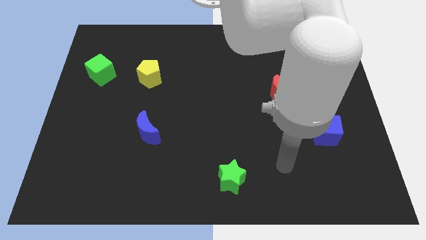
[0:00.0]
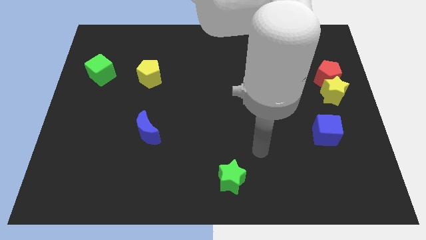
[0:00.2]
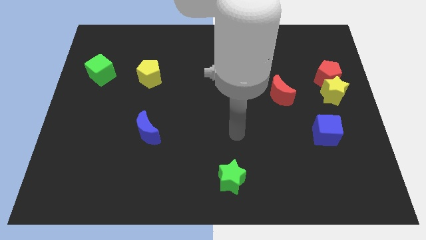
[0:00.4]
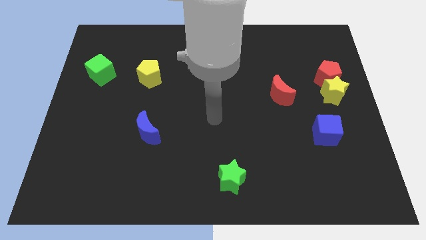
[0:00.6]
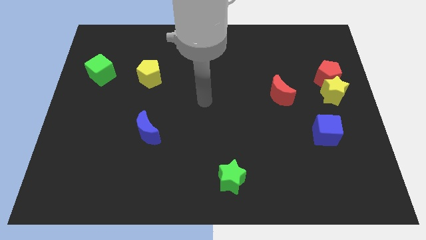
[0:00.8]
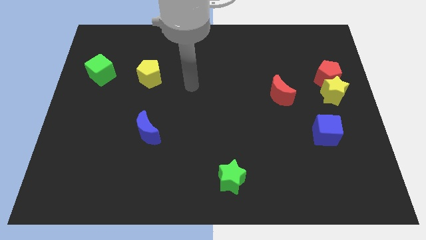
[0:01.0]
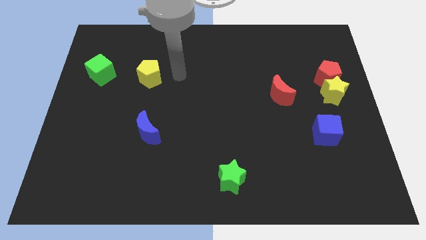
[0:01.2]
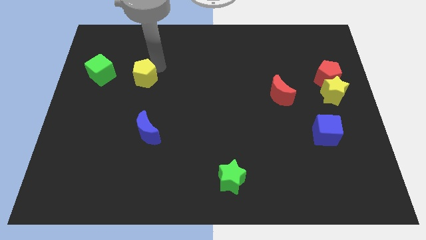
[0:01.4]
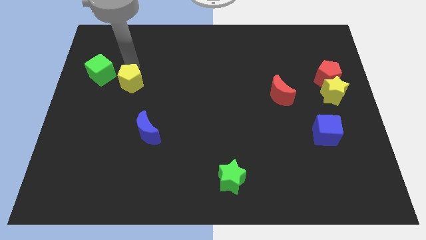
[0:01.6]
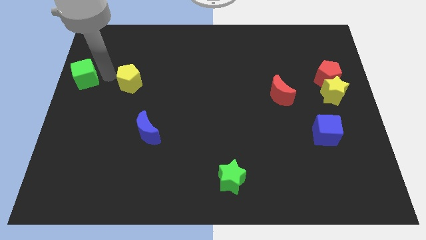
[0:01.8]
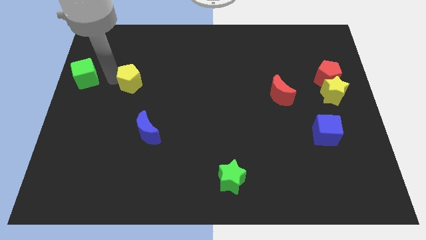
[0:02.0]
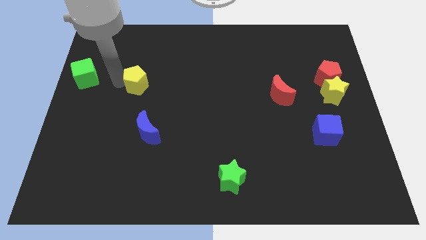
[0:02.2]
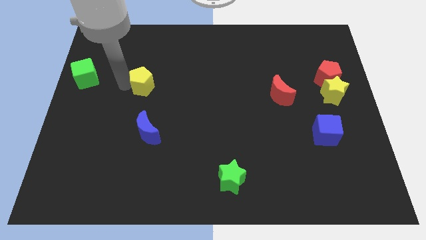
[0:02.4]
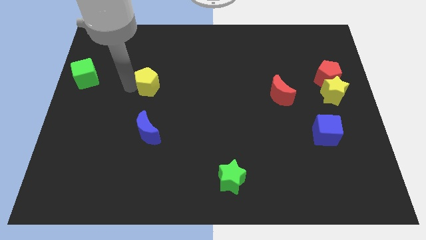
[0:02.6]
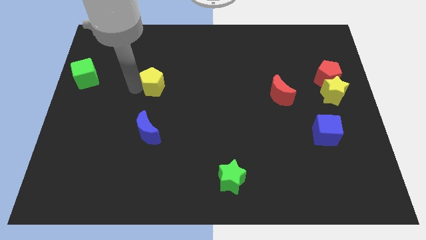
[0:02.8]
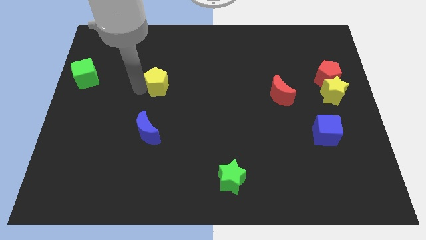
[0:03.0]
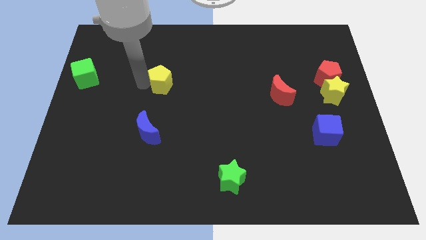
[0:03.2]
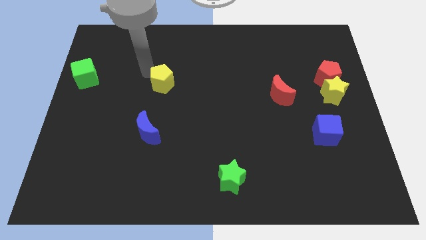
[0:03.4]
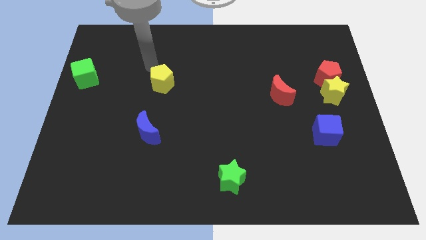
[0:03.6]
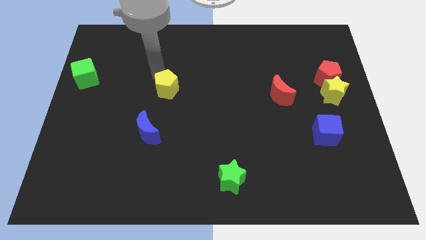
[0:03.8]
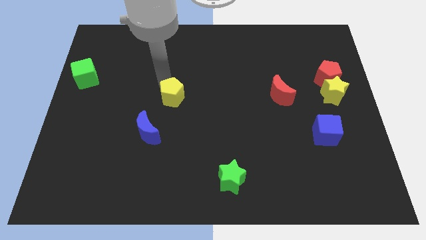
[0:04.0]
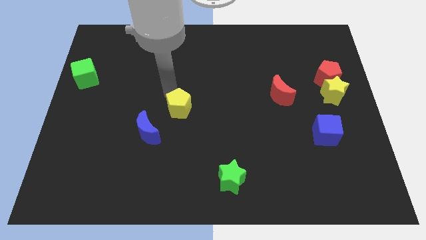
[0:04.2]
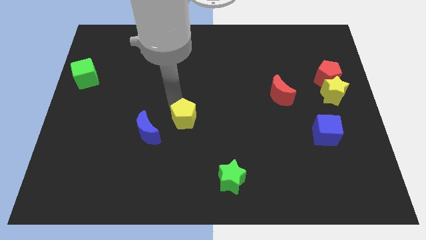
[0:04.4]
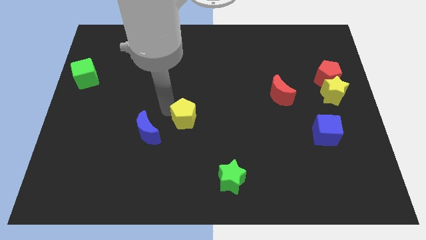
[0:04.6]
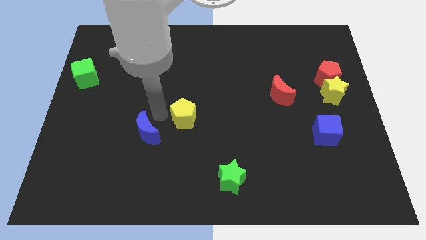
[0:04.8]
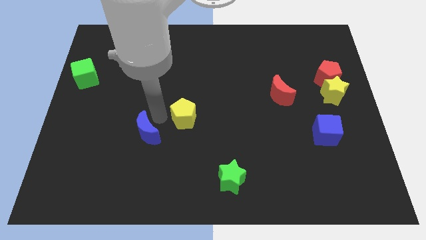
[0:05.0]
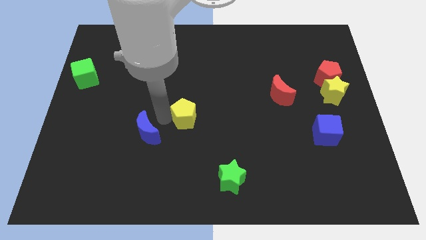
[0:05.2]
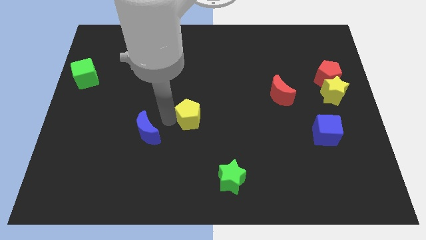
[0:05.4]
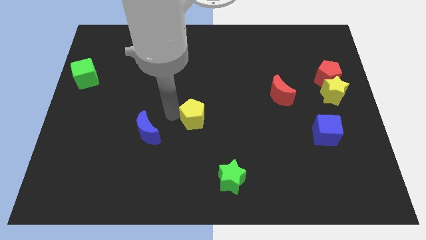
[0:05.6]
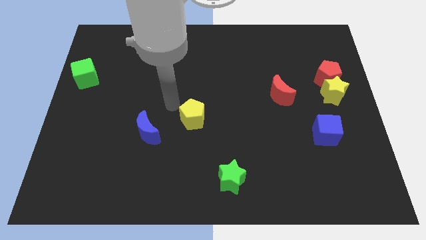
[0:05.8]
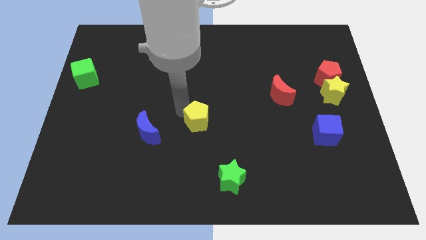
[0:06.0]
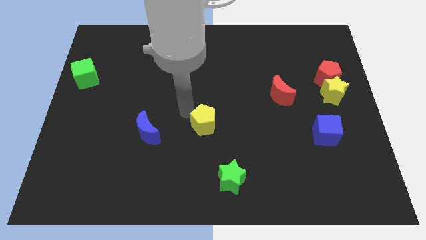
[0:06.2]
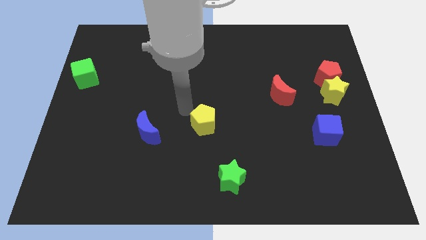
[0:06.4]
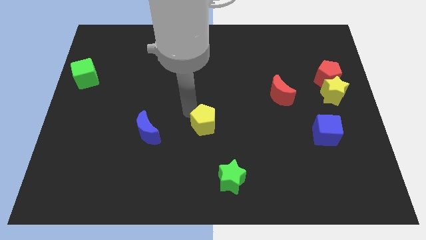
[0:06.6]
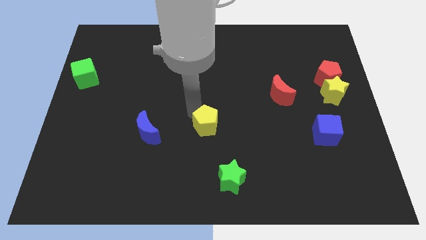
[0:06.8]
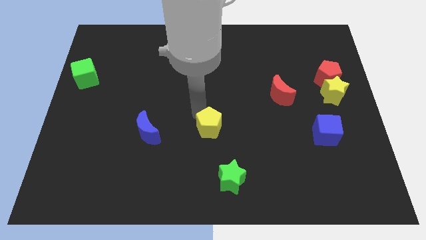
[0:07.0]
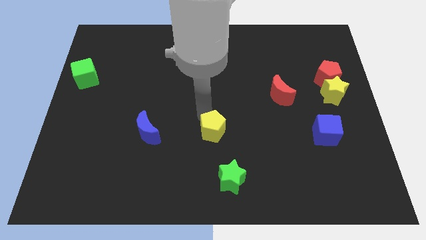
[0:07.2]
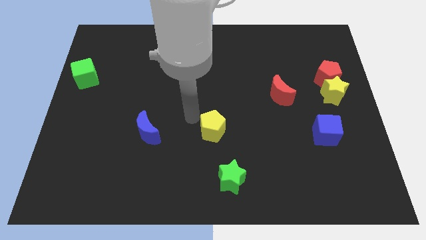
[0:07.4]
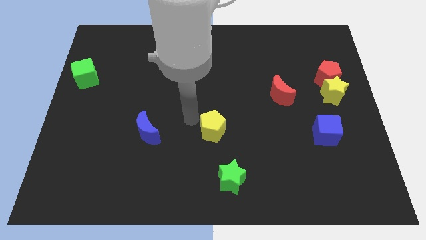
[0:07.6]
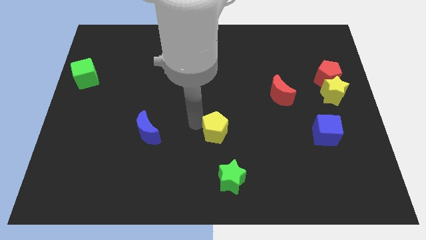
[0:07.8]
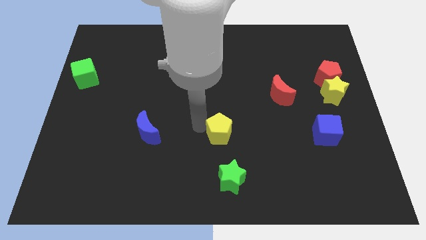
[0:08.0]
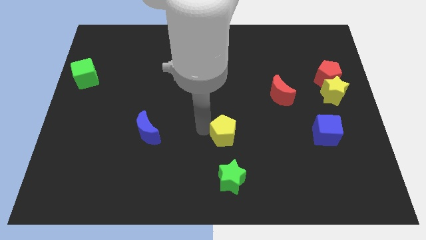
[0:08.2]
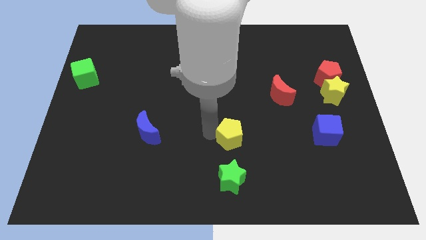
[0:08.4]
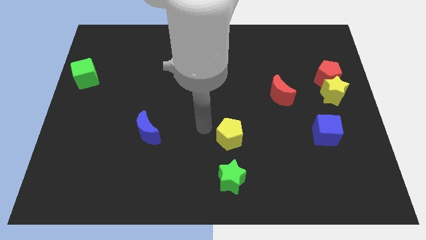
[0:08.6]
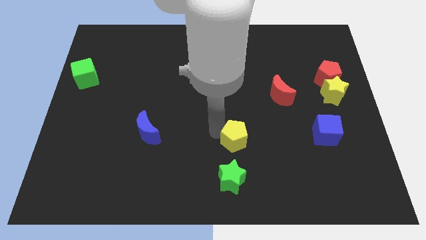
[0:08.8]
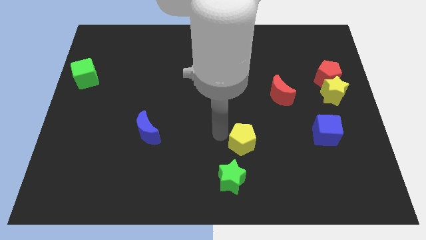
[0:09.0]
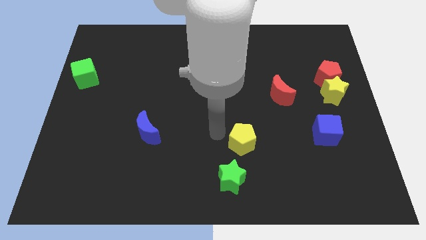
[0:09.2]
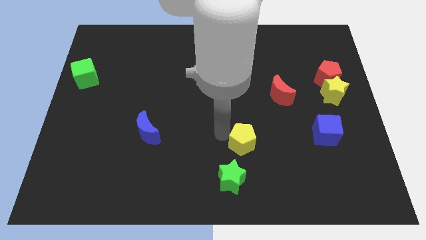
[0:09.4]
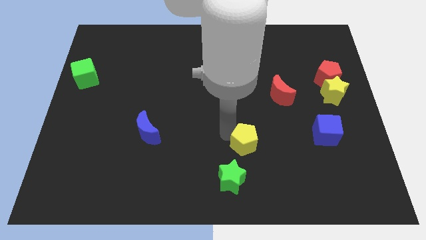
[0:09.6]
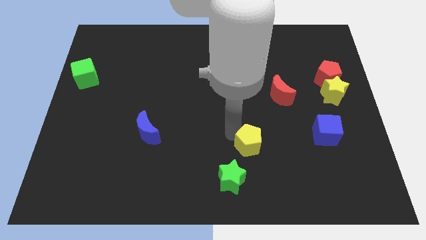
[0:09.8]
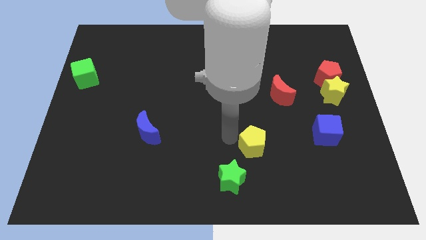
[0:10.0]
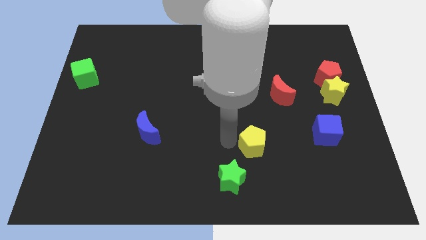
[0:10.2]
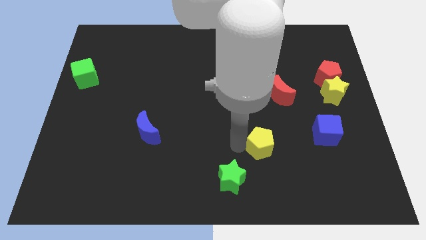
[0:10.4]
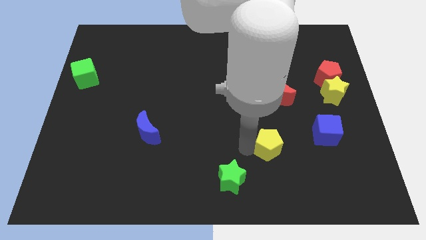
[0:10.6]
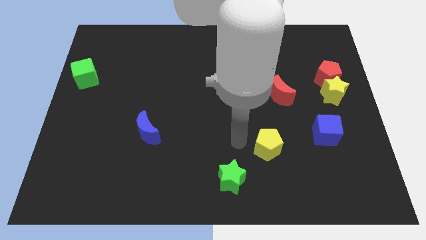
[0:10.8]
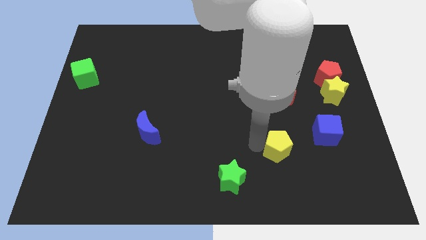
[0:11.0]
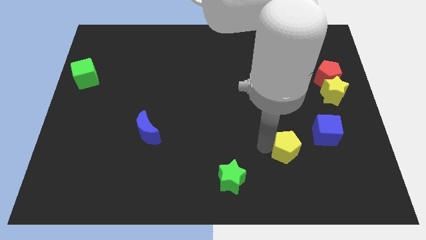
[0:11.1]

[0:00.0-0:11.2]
slide the yellow pentagon to the bottom left of the blue cube

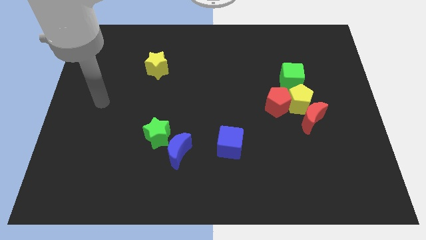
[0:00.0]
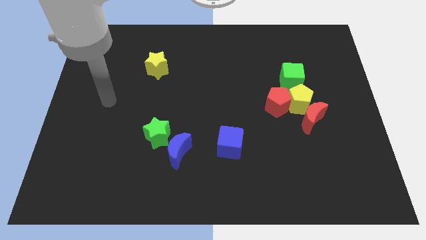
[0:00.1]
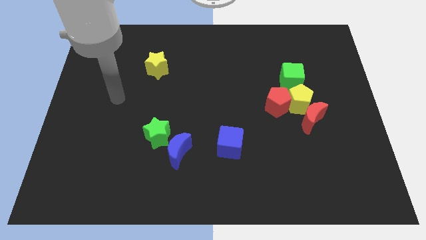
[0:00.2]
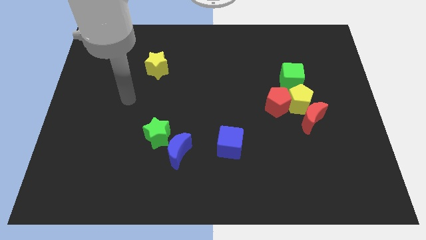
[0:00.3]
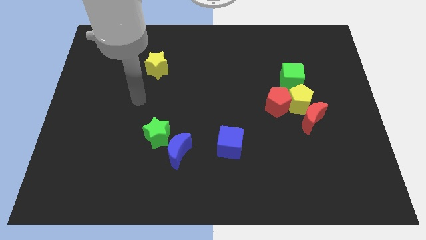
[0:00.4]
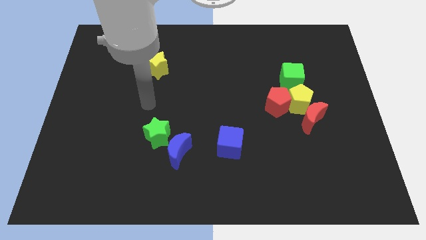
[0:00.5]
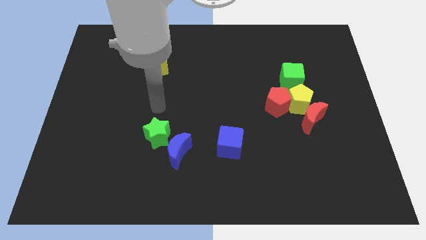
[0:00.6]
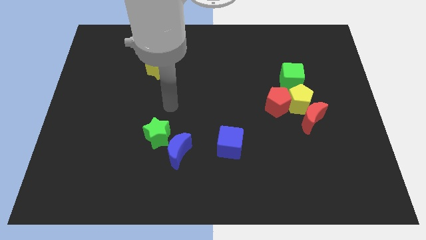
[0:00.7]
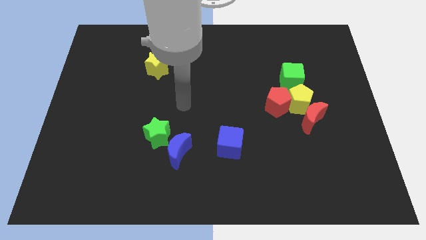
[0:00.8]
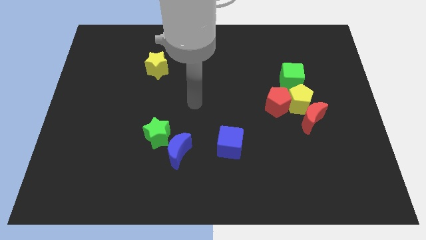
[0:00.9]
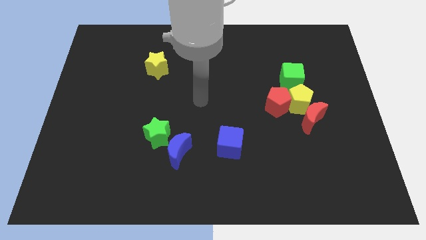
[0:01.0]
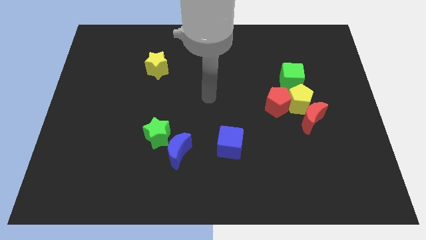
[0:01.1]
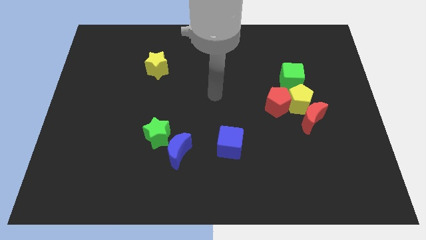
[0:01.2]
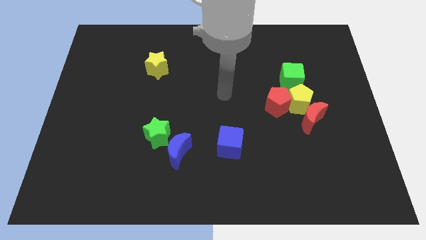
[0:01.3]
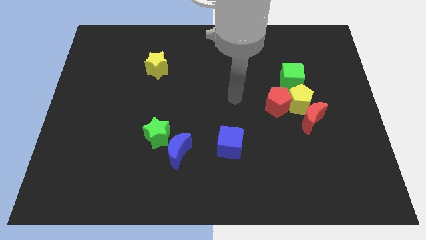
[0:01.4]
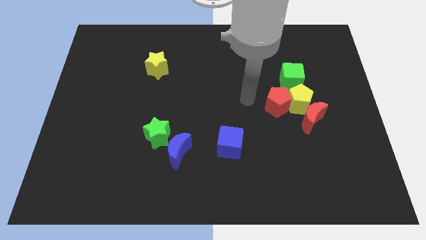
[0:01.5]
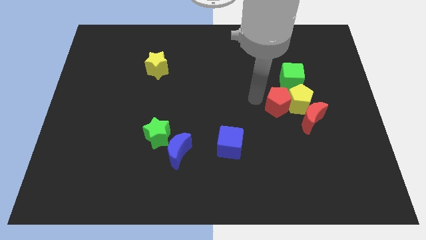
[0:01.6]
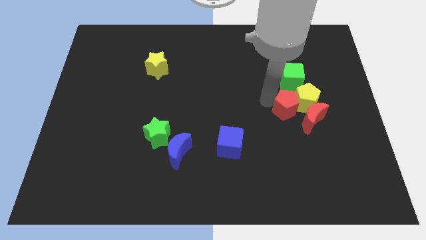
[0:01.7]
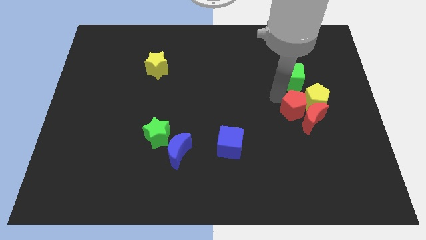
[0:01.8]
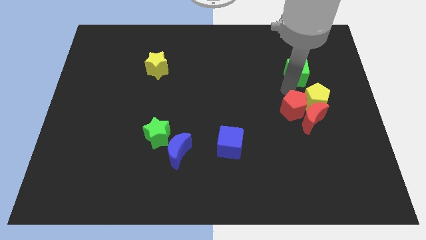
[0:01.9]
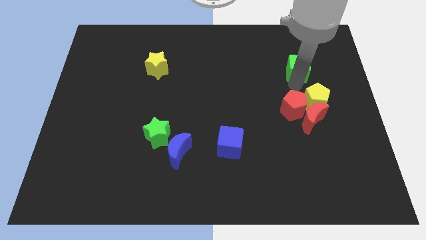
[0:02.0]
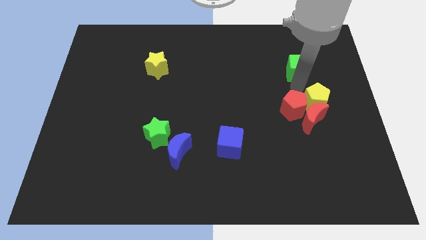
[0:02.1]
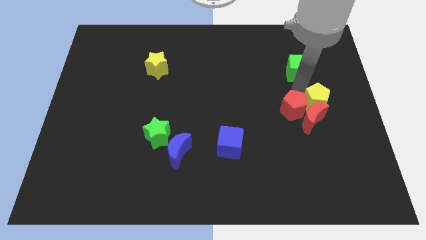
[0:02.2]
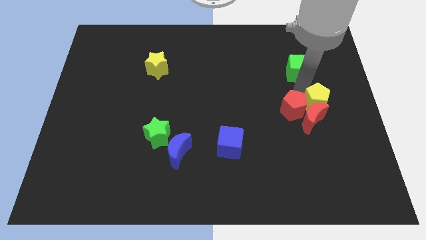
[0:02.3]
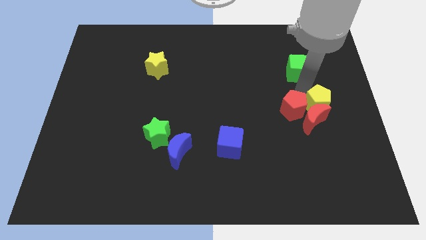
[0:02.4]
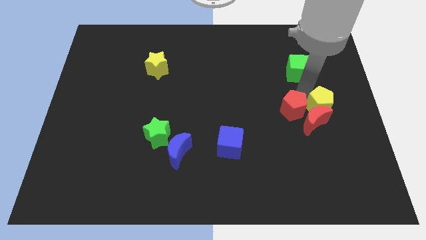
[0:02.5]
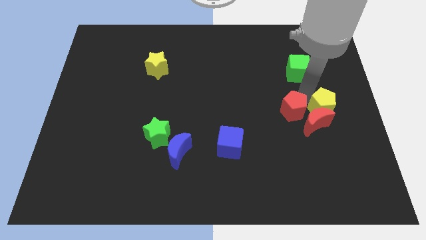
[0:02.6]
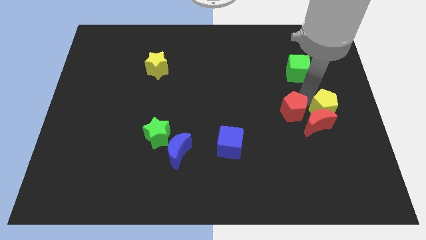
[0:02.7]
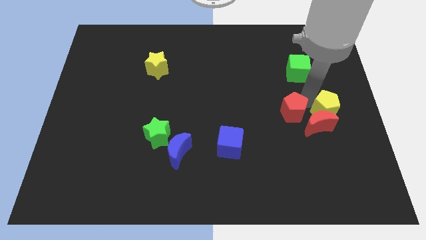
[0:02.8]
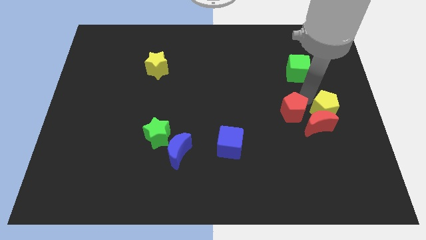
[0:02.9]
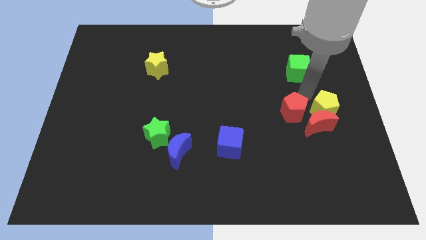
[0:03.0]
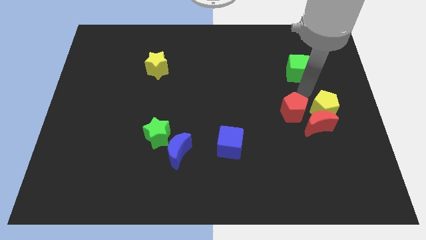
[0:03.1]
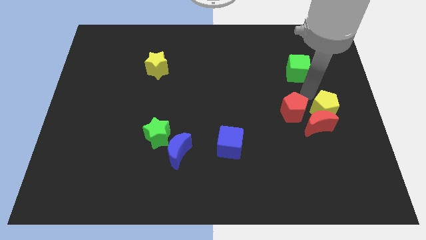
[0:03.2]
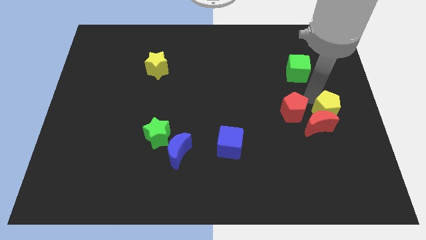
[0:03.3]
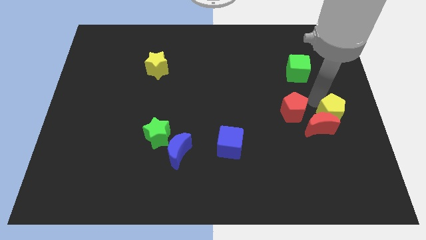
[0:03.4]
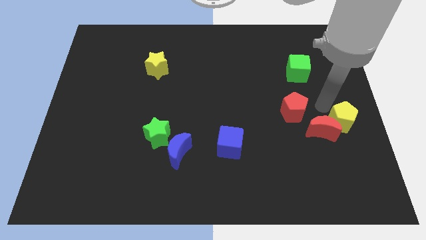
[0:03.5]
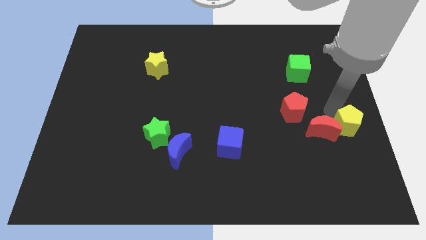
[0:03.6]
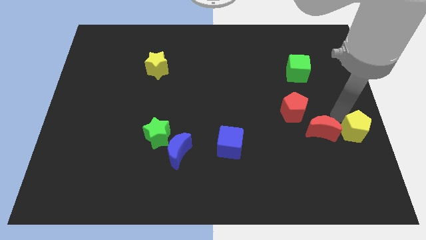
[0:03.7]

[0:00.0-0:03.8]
put the yellow pentagon to the bottom right of the red moon
